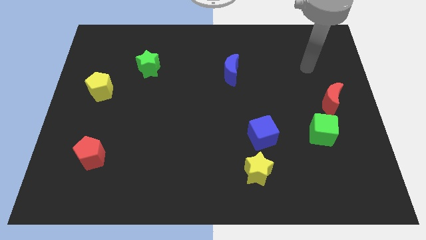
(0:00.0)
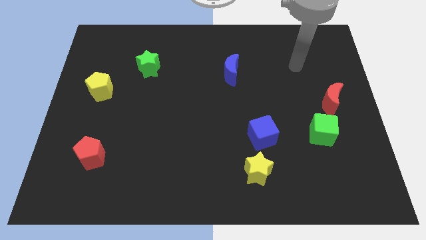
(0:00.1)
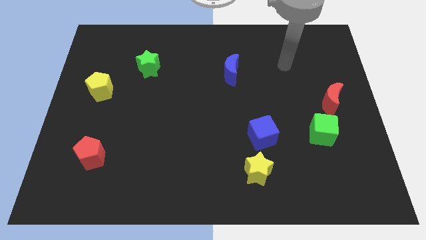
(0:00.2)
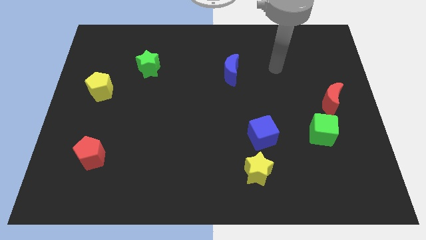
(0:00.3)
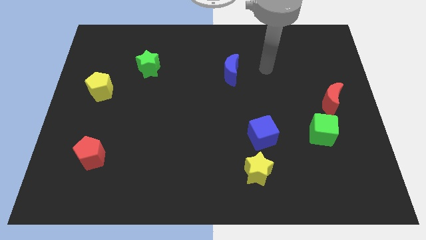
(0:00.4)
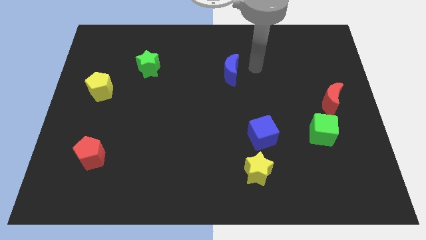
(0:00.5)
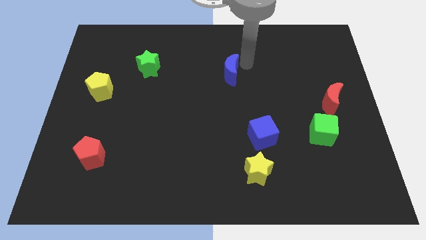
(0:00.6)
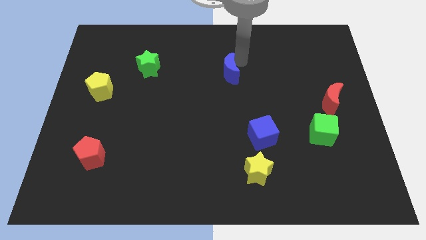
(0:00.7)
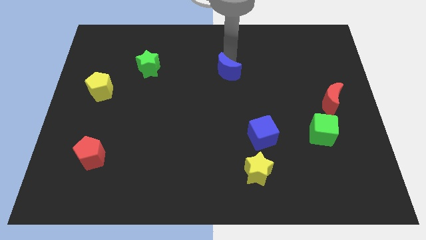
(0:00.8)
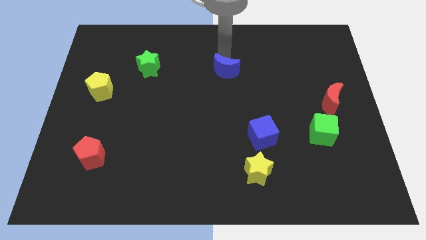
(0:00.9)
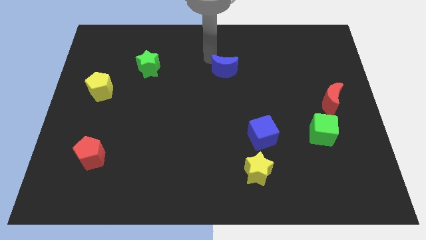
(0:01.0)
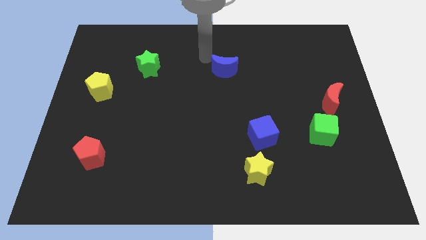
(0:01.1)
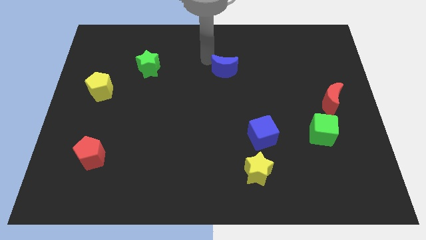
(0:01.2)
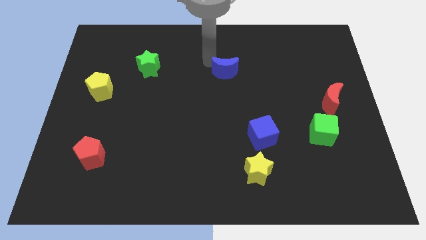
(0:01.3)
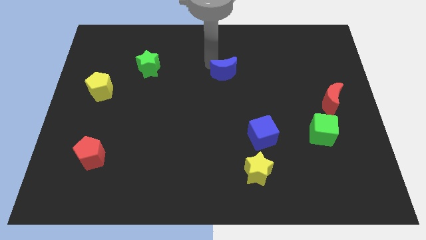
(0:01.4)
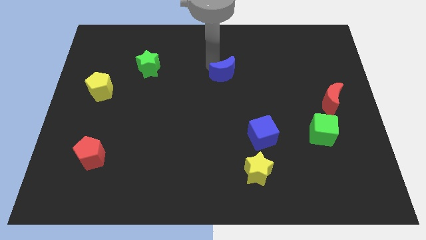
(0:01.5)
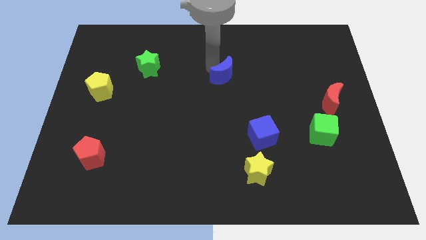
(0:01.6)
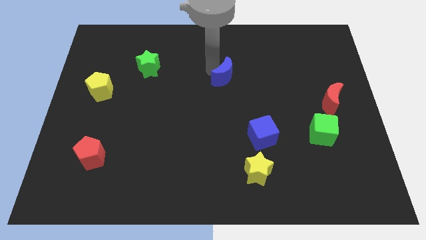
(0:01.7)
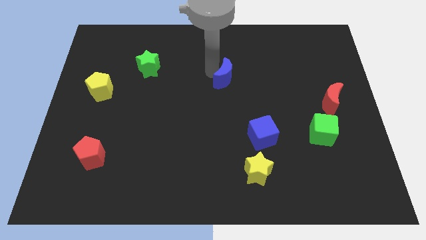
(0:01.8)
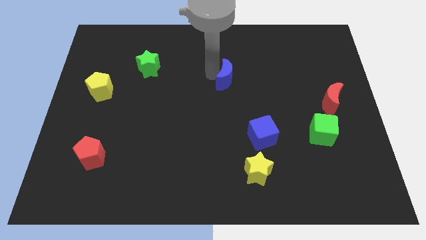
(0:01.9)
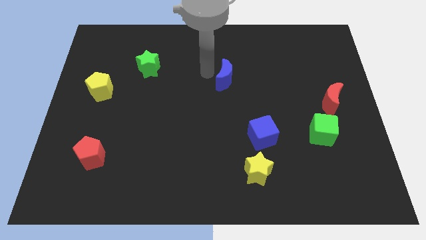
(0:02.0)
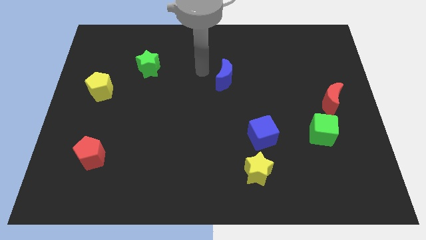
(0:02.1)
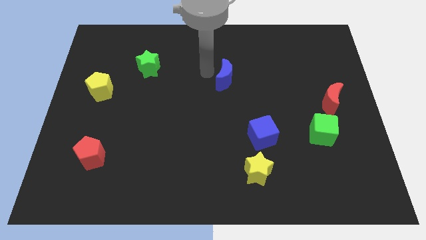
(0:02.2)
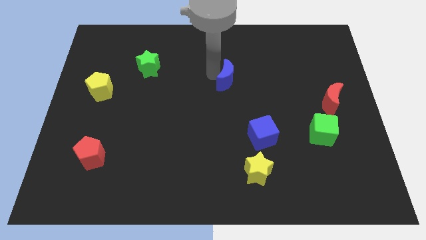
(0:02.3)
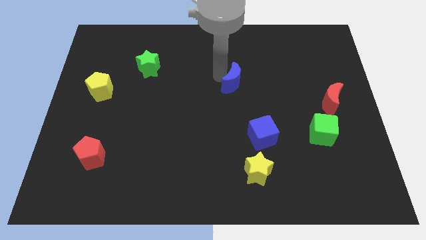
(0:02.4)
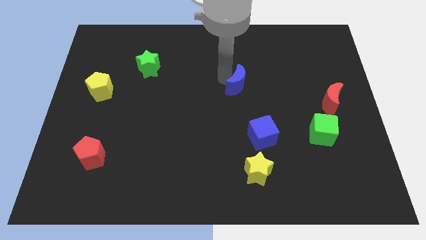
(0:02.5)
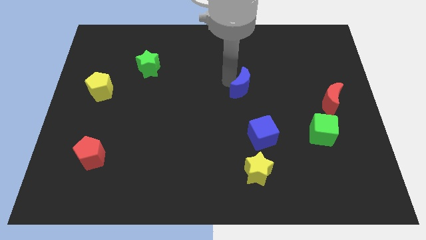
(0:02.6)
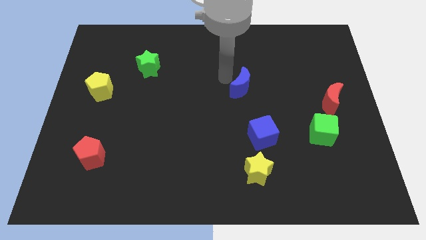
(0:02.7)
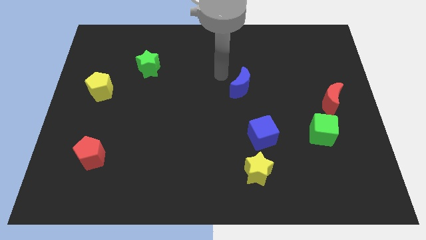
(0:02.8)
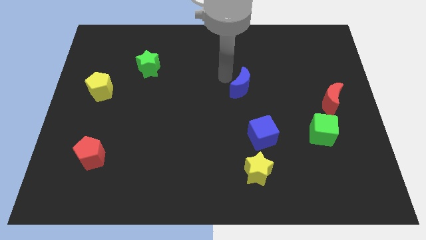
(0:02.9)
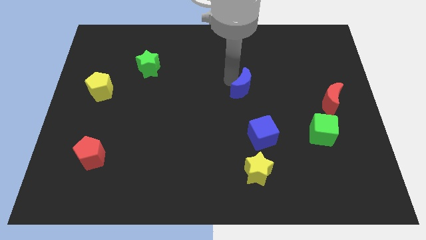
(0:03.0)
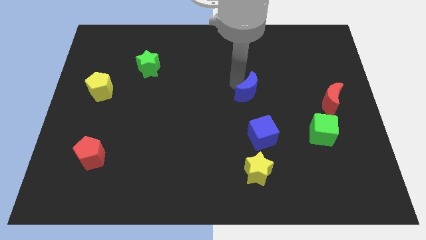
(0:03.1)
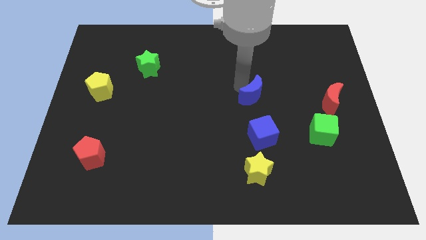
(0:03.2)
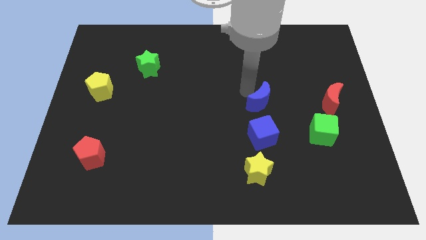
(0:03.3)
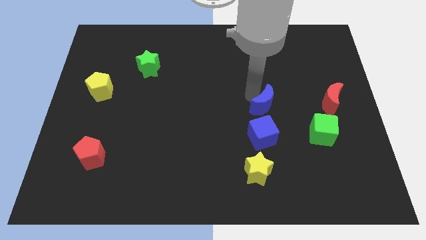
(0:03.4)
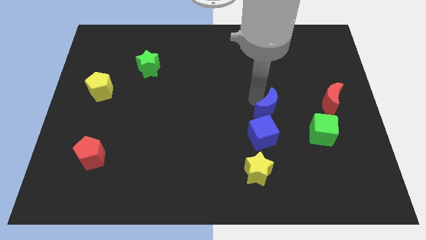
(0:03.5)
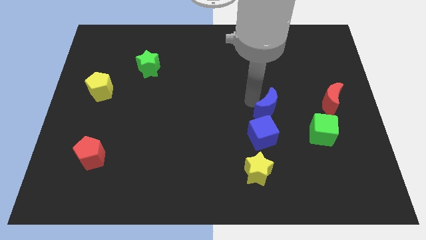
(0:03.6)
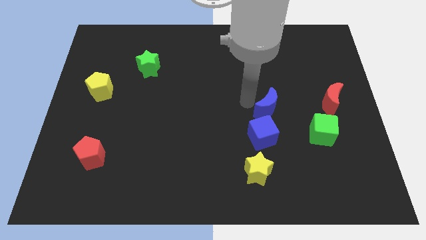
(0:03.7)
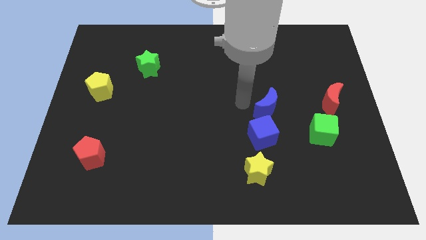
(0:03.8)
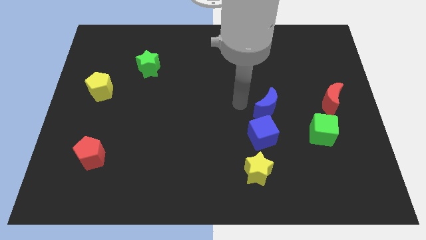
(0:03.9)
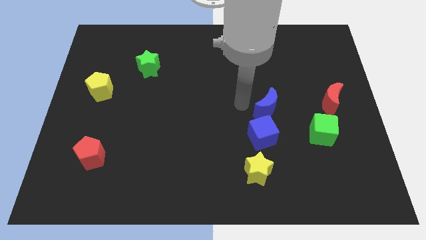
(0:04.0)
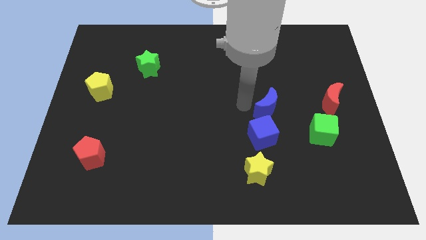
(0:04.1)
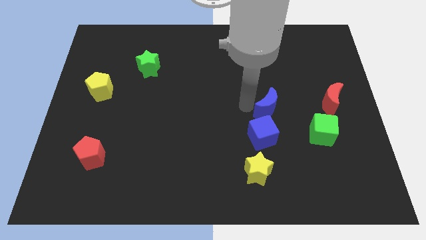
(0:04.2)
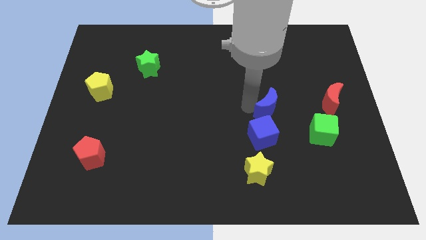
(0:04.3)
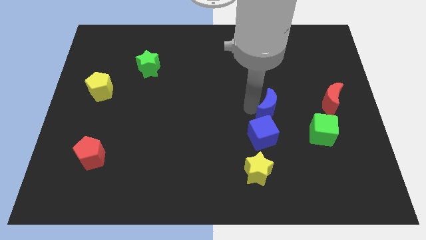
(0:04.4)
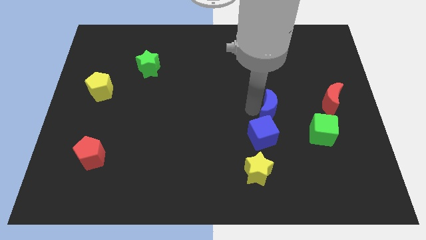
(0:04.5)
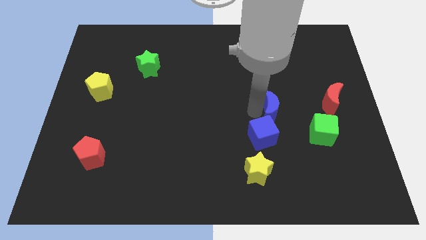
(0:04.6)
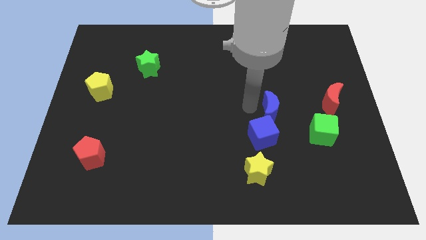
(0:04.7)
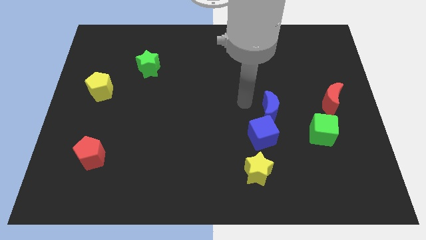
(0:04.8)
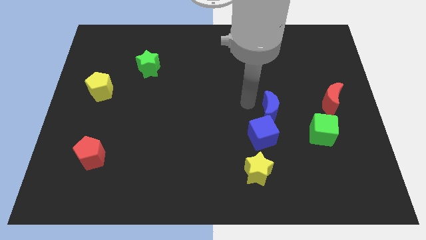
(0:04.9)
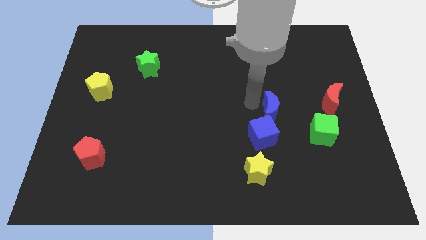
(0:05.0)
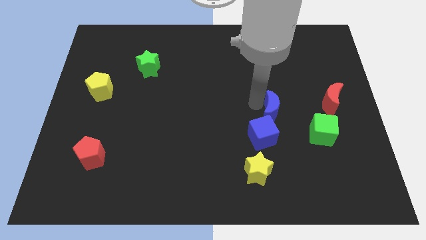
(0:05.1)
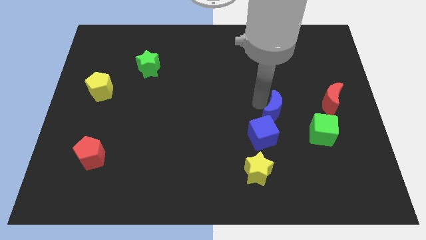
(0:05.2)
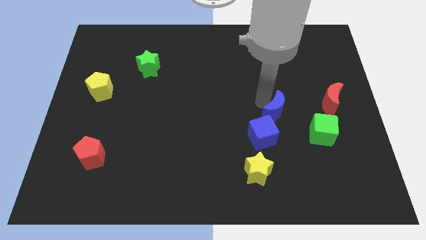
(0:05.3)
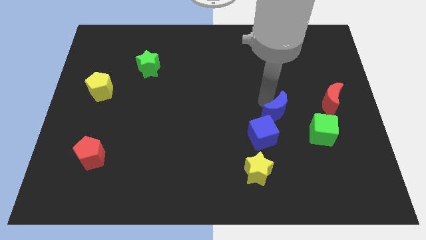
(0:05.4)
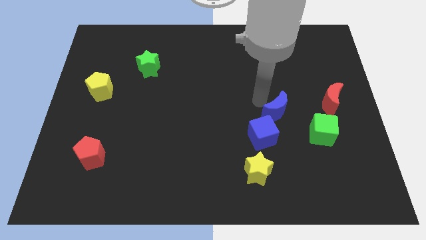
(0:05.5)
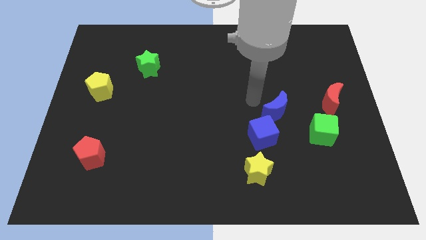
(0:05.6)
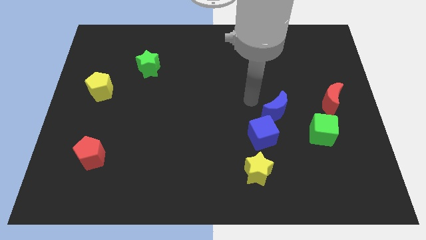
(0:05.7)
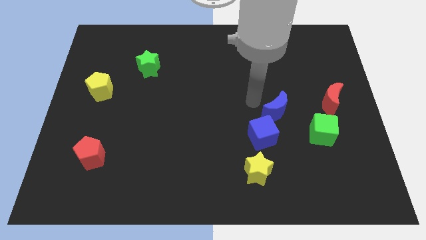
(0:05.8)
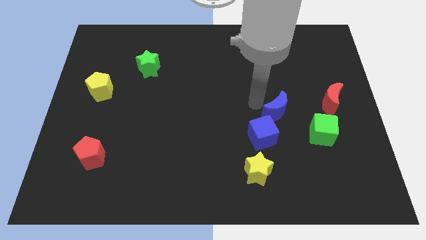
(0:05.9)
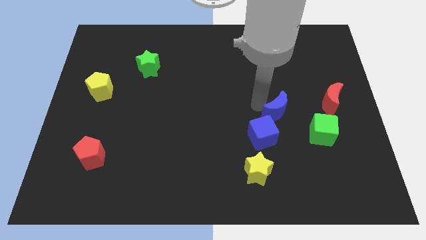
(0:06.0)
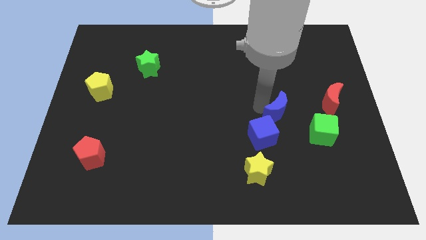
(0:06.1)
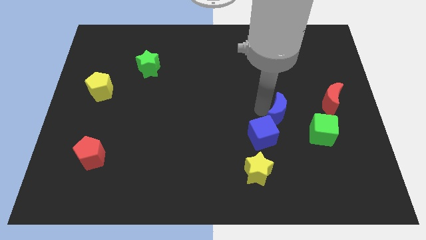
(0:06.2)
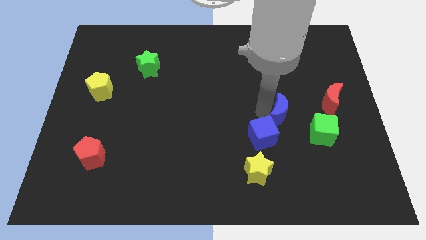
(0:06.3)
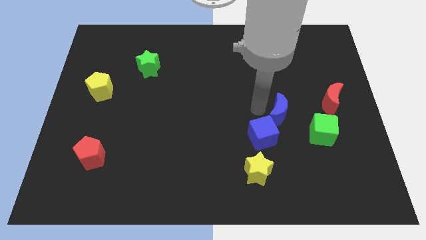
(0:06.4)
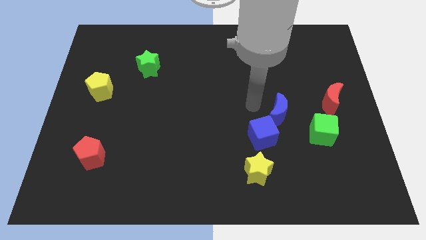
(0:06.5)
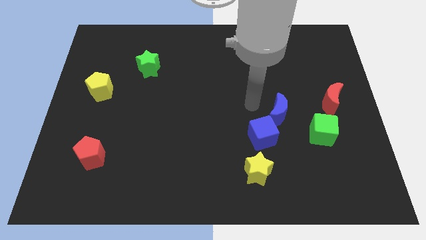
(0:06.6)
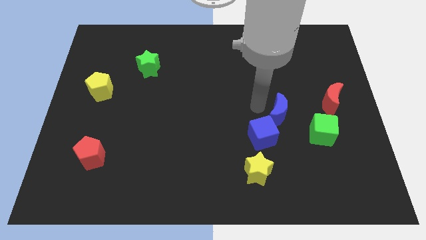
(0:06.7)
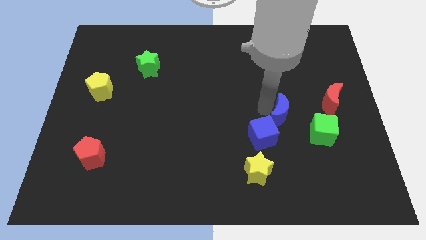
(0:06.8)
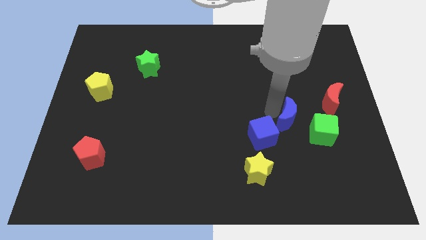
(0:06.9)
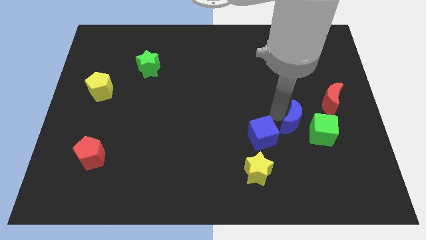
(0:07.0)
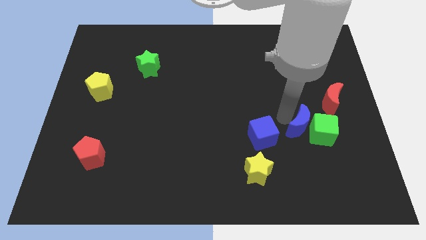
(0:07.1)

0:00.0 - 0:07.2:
put the blue moon close to the green cube
